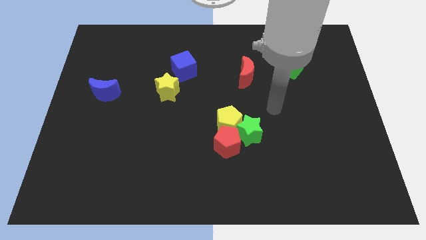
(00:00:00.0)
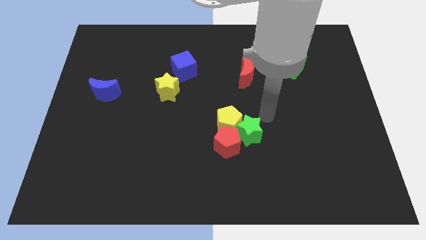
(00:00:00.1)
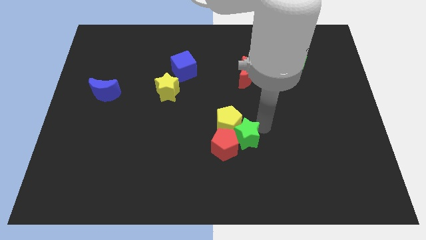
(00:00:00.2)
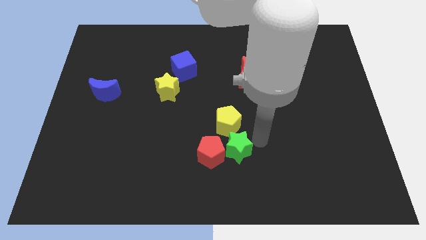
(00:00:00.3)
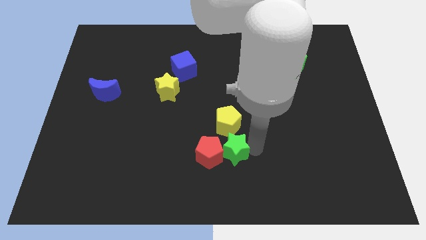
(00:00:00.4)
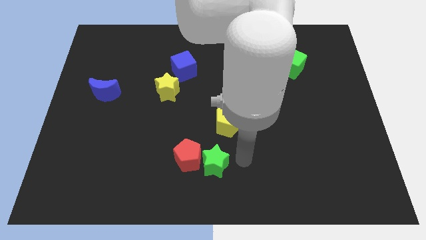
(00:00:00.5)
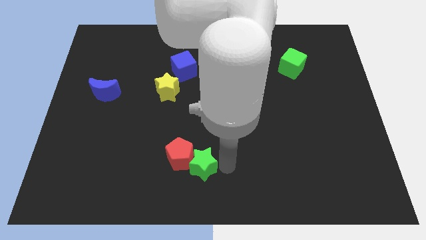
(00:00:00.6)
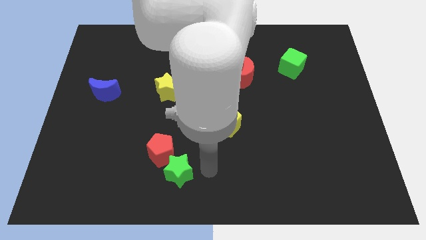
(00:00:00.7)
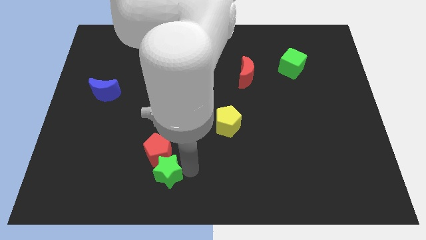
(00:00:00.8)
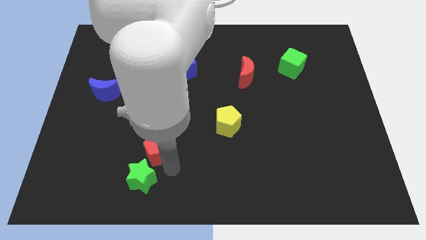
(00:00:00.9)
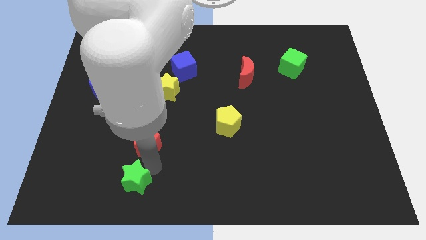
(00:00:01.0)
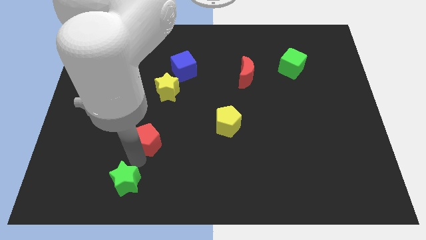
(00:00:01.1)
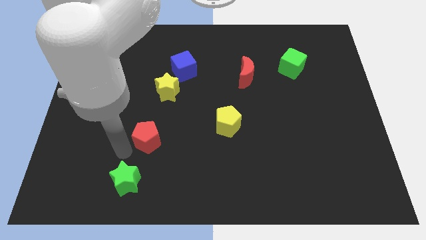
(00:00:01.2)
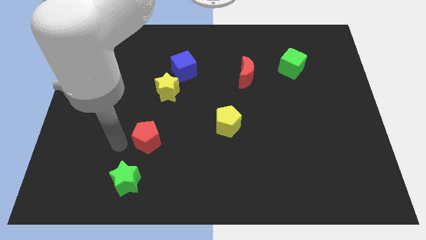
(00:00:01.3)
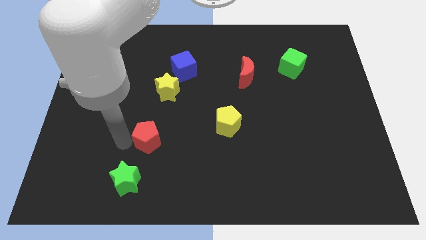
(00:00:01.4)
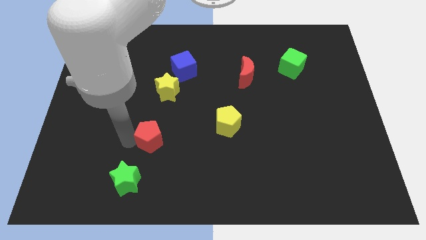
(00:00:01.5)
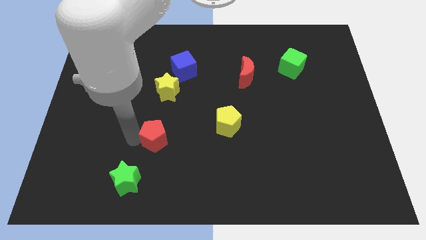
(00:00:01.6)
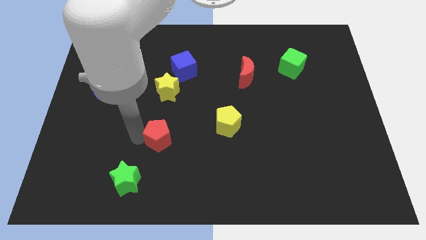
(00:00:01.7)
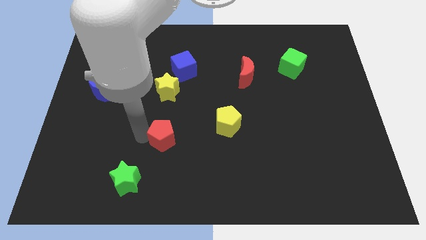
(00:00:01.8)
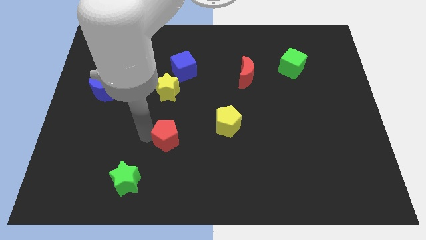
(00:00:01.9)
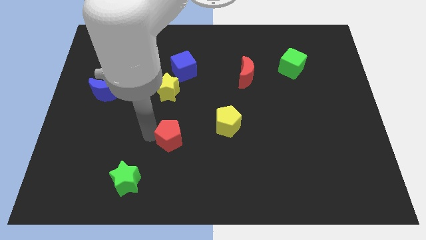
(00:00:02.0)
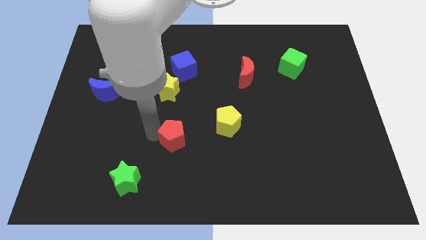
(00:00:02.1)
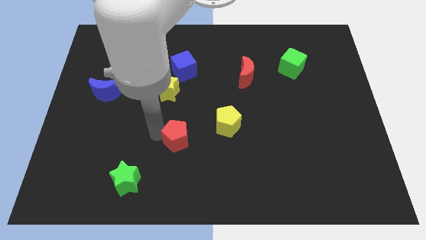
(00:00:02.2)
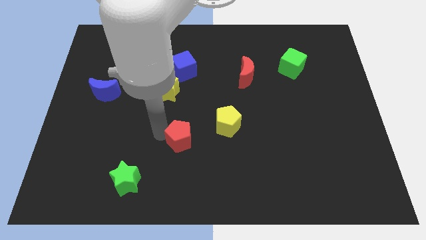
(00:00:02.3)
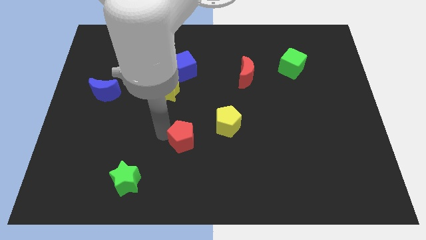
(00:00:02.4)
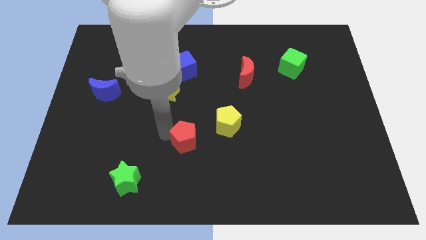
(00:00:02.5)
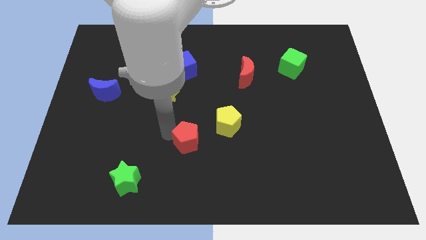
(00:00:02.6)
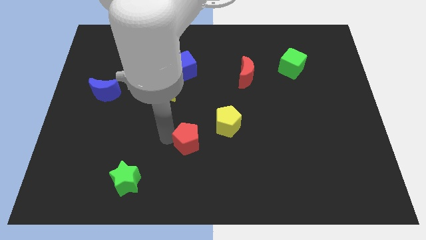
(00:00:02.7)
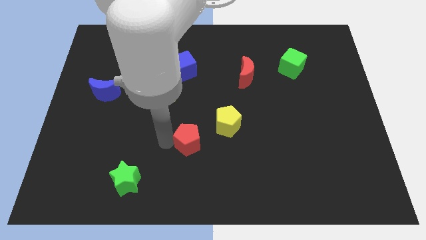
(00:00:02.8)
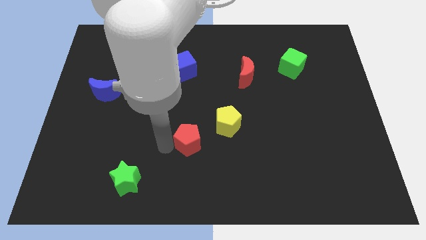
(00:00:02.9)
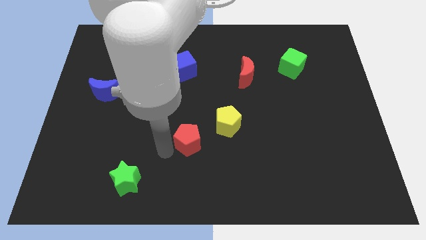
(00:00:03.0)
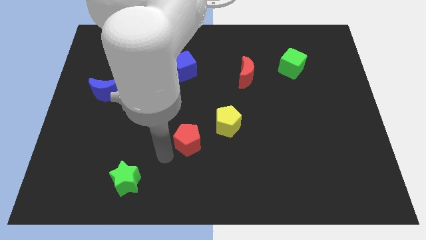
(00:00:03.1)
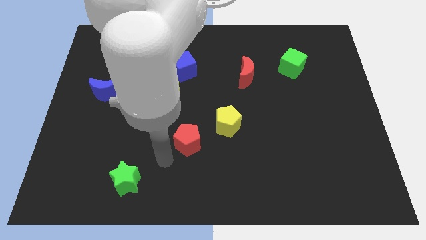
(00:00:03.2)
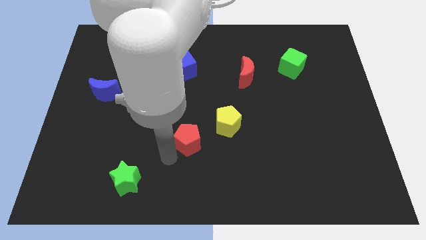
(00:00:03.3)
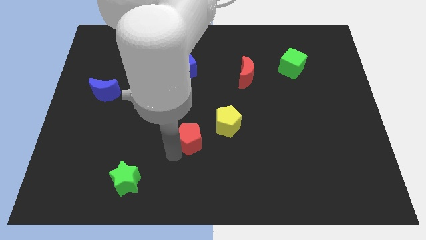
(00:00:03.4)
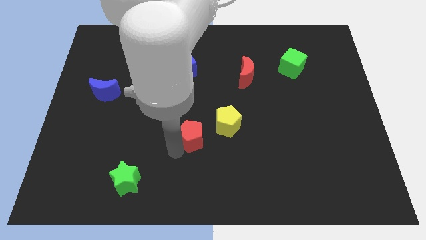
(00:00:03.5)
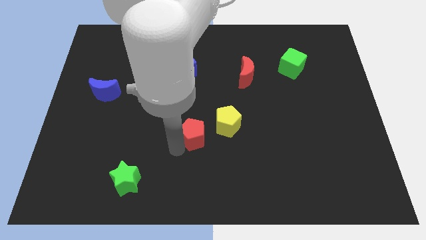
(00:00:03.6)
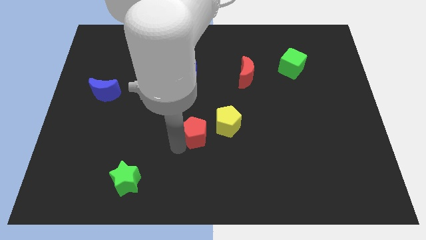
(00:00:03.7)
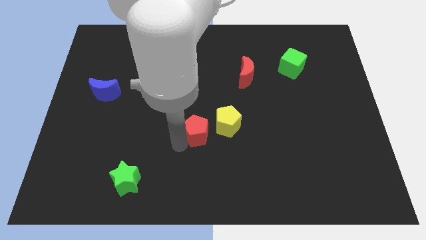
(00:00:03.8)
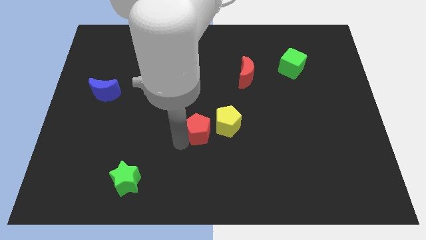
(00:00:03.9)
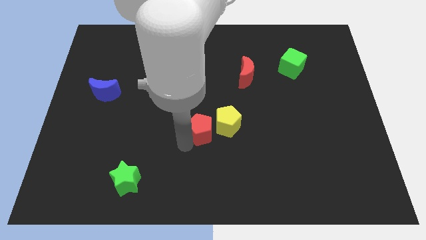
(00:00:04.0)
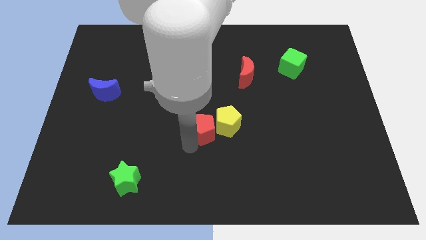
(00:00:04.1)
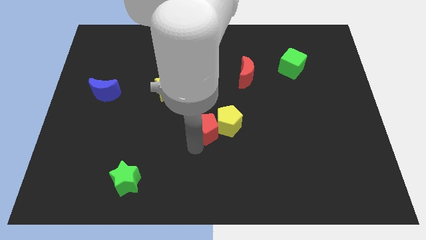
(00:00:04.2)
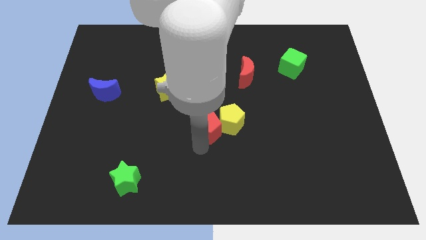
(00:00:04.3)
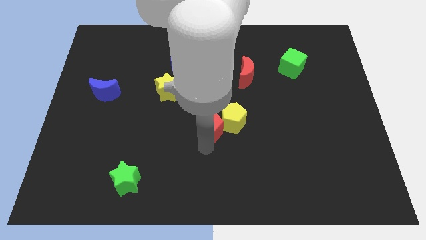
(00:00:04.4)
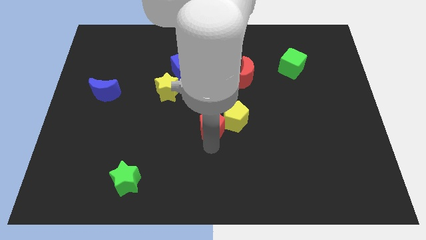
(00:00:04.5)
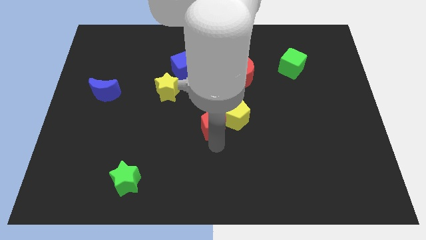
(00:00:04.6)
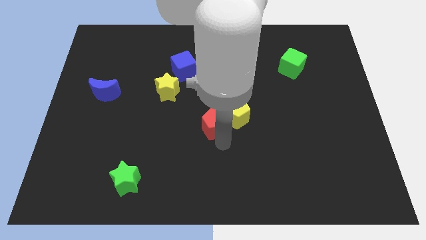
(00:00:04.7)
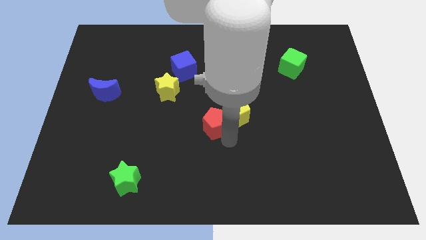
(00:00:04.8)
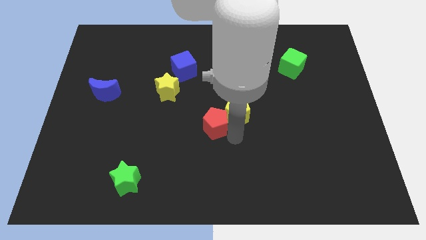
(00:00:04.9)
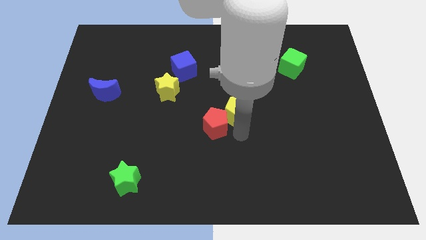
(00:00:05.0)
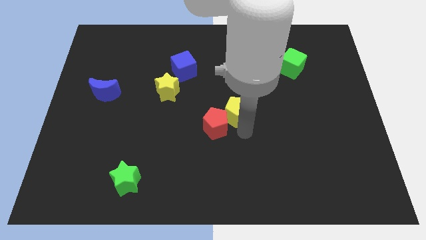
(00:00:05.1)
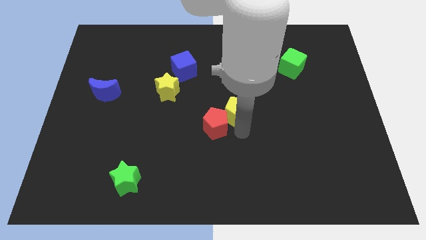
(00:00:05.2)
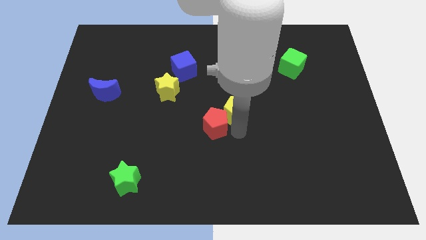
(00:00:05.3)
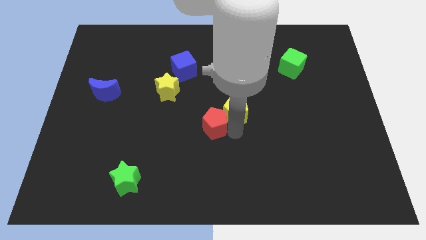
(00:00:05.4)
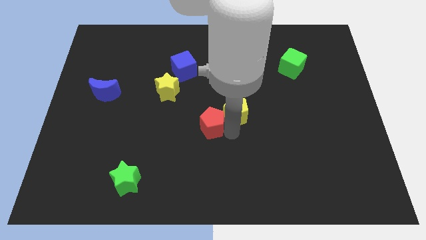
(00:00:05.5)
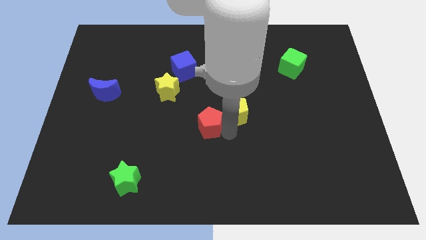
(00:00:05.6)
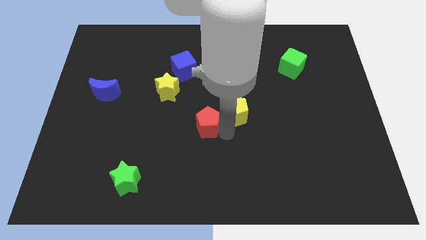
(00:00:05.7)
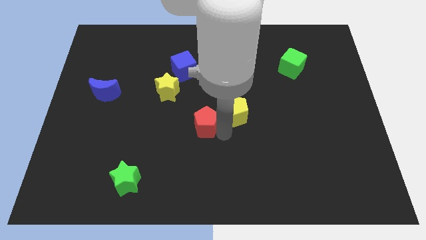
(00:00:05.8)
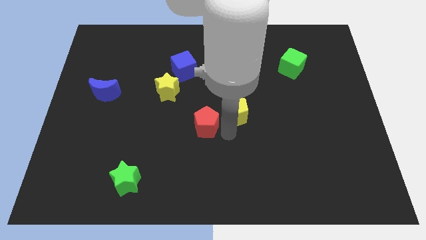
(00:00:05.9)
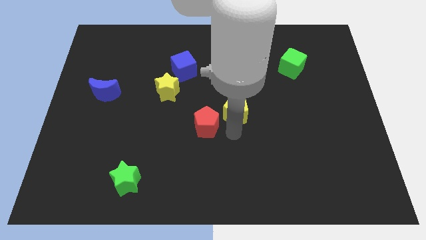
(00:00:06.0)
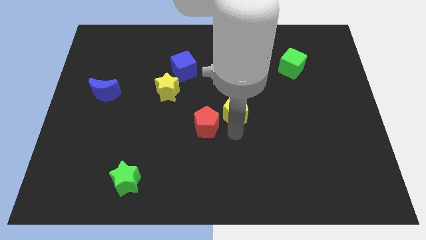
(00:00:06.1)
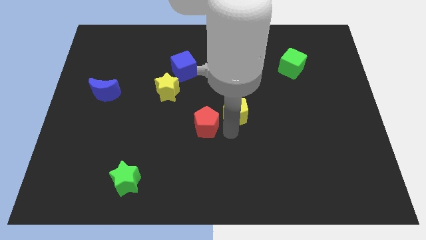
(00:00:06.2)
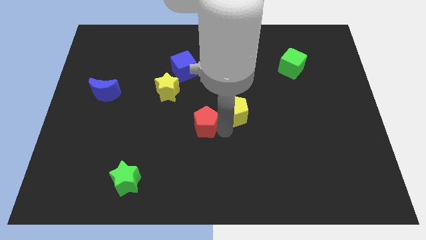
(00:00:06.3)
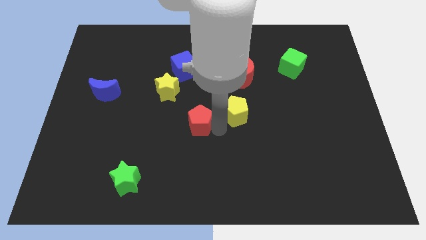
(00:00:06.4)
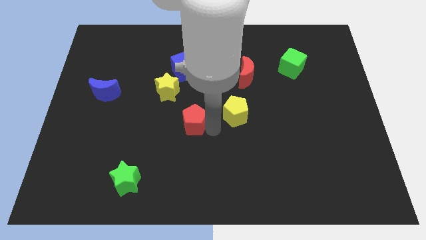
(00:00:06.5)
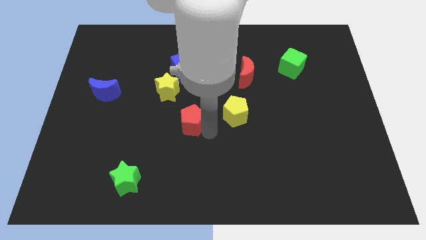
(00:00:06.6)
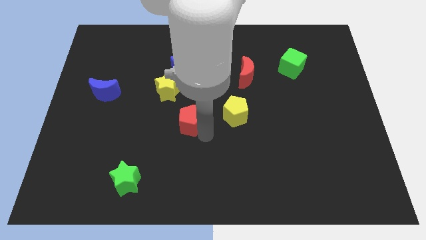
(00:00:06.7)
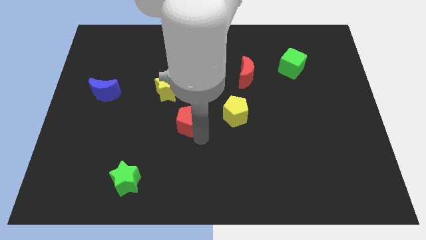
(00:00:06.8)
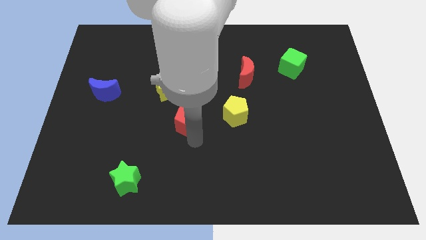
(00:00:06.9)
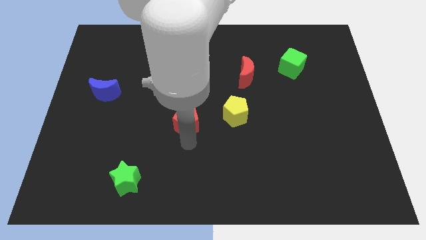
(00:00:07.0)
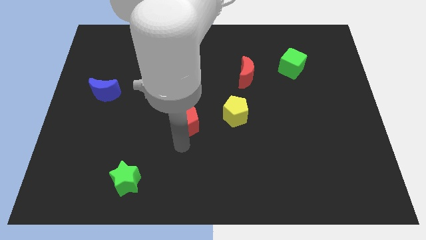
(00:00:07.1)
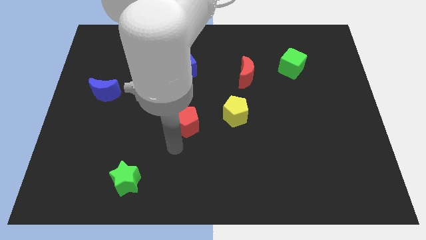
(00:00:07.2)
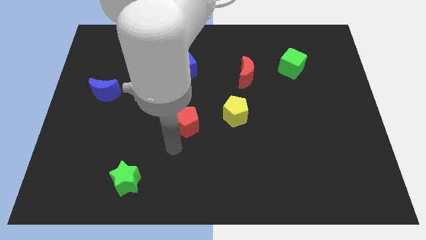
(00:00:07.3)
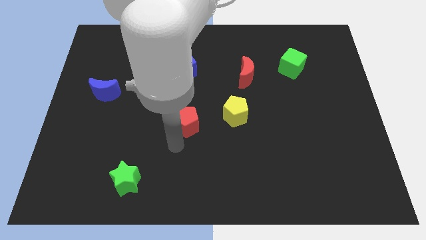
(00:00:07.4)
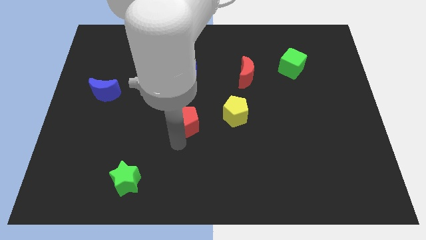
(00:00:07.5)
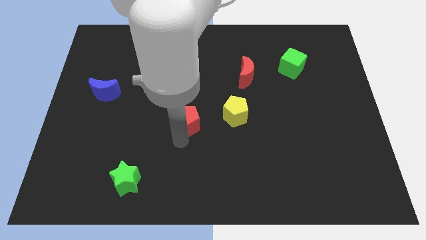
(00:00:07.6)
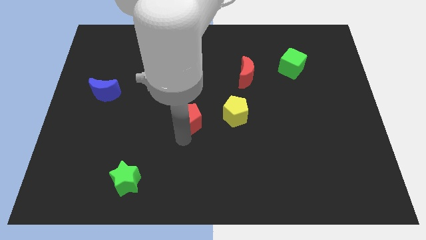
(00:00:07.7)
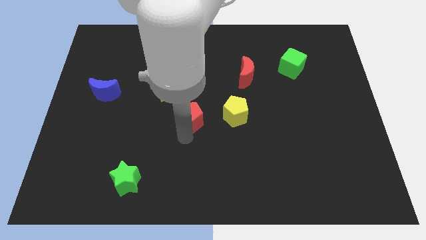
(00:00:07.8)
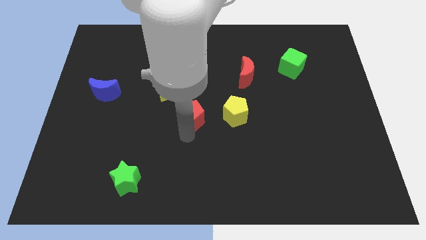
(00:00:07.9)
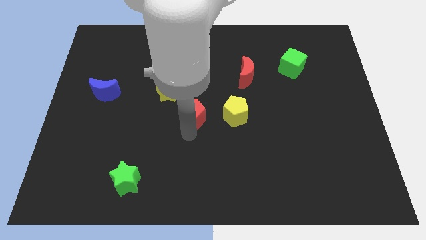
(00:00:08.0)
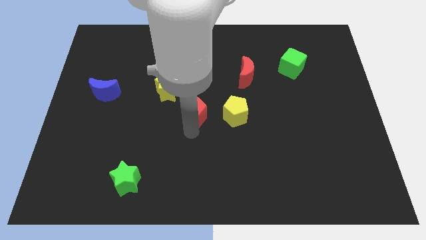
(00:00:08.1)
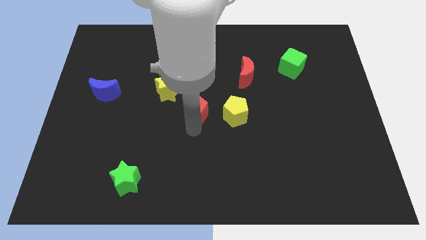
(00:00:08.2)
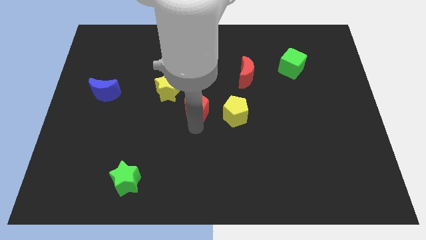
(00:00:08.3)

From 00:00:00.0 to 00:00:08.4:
push the red pentagon a bit up
